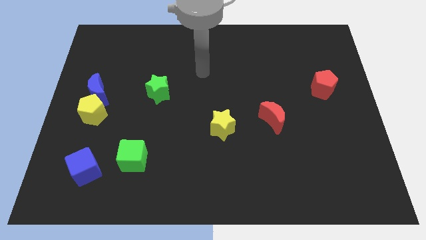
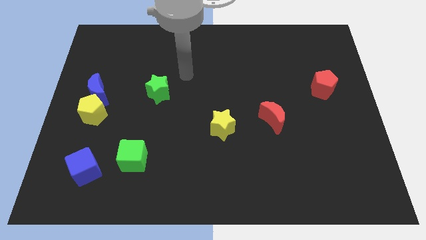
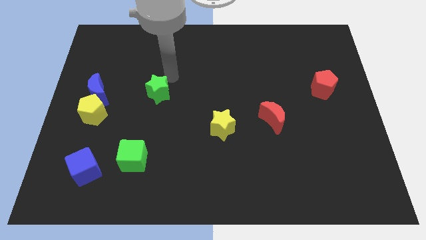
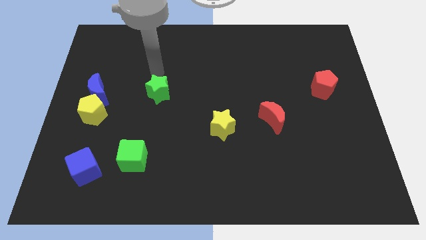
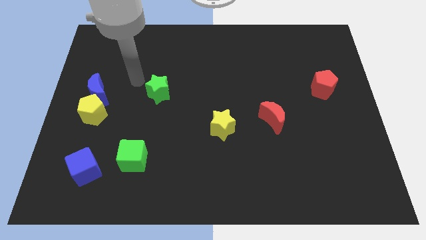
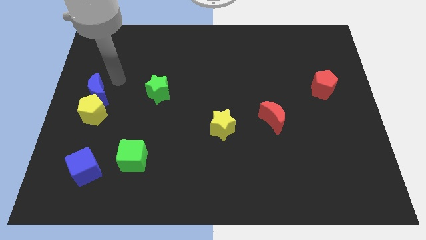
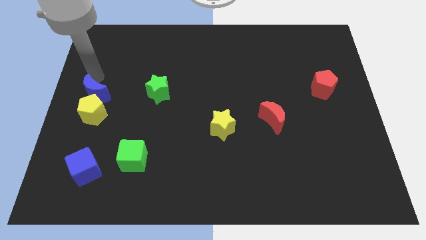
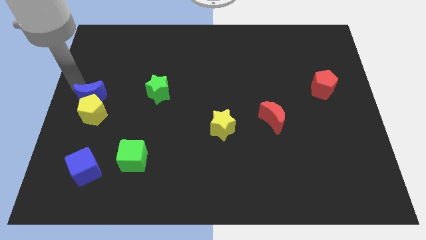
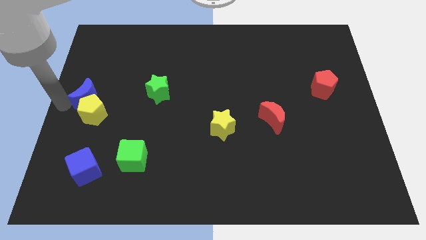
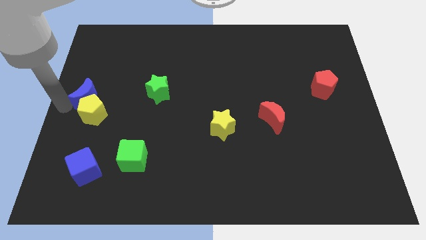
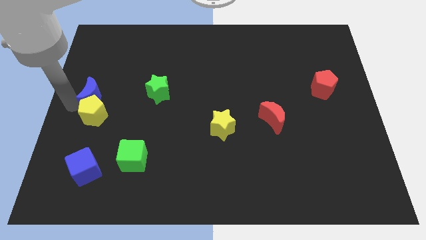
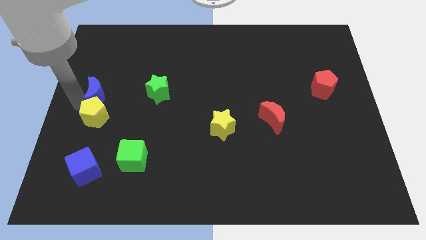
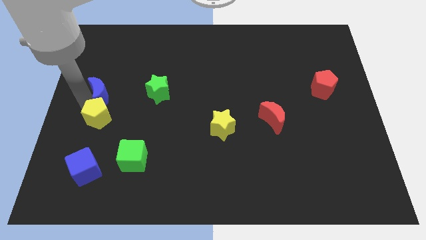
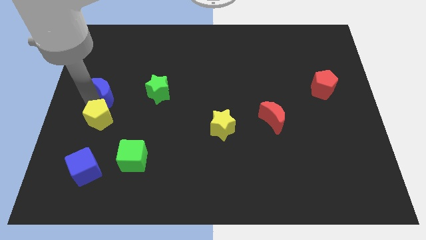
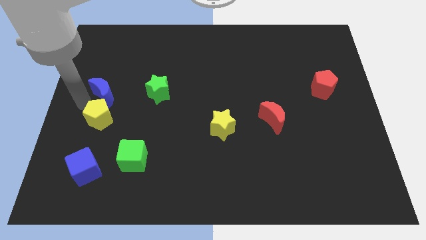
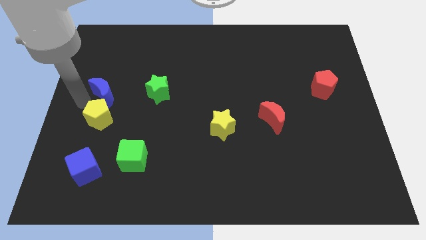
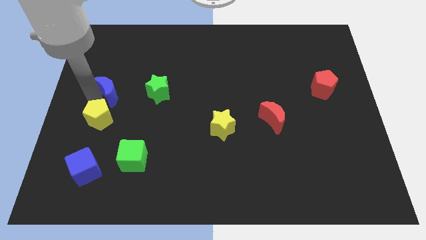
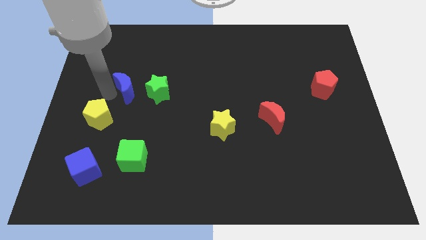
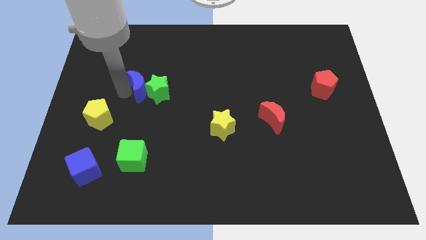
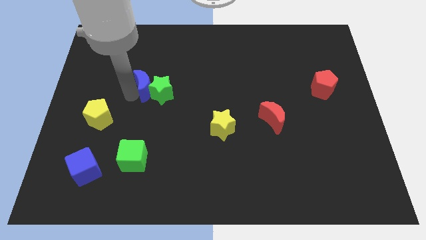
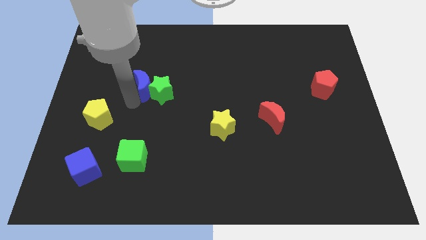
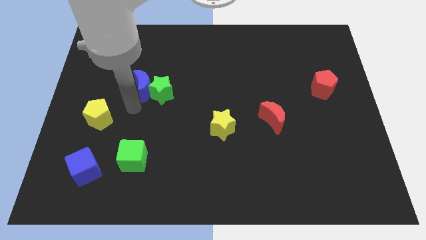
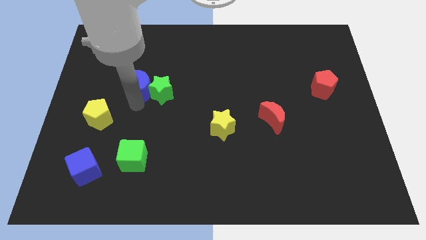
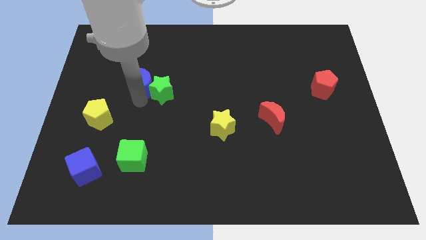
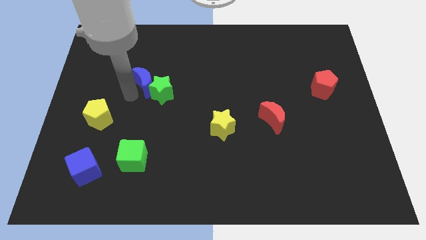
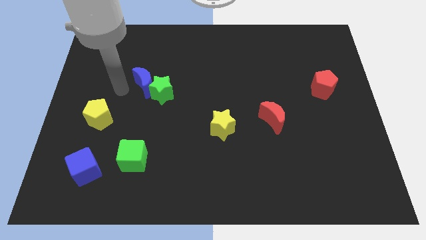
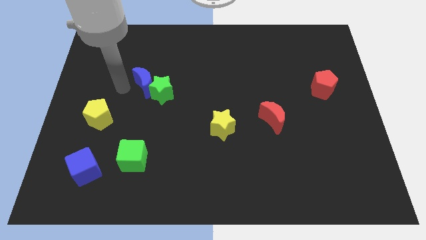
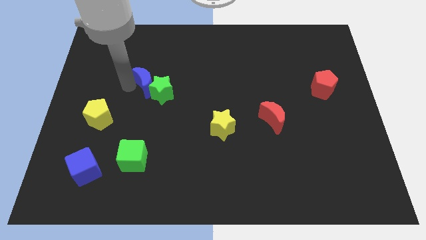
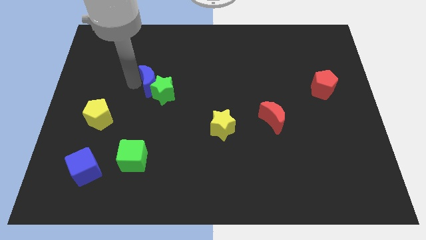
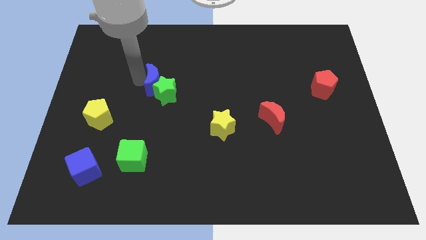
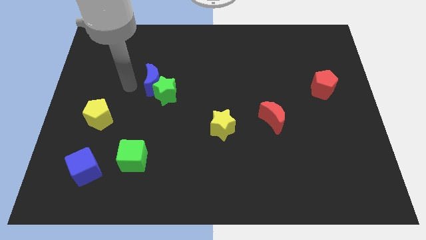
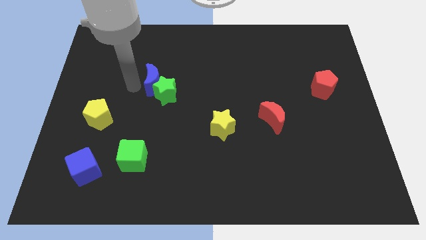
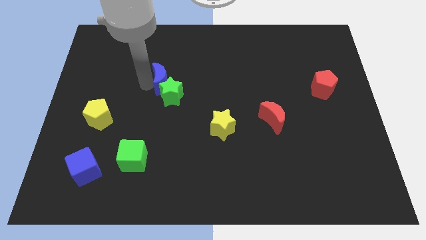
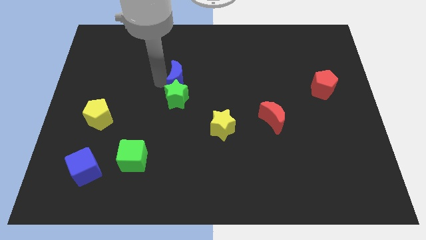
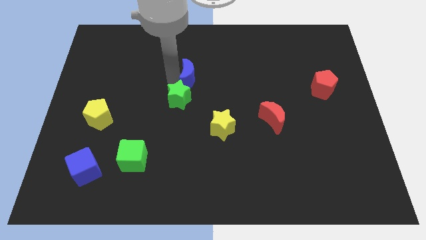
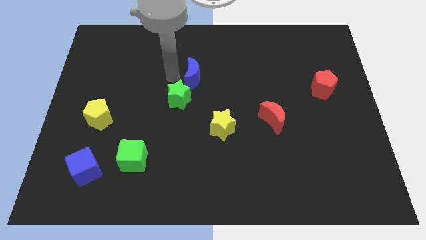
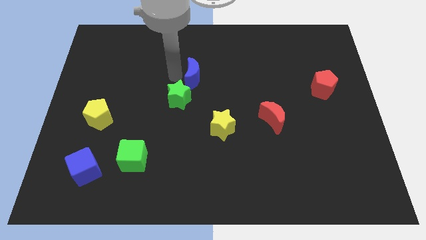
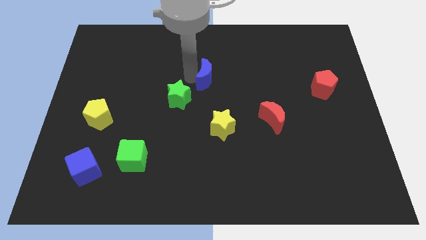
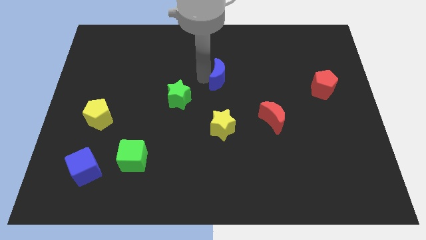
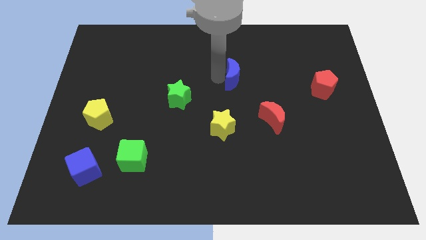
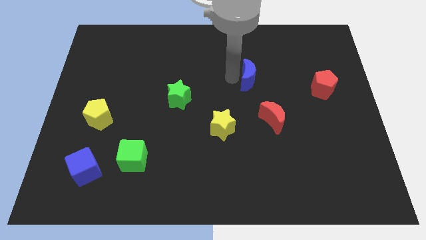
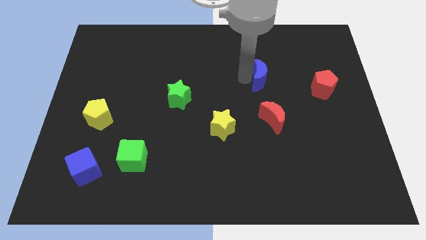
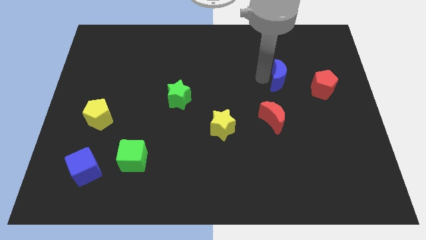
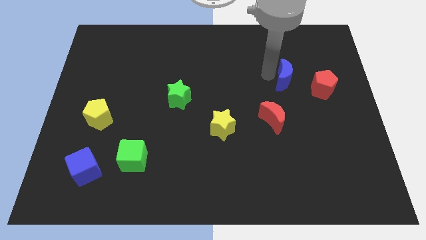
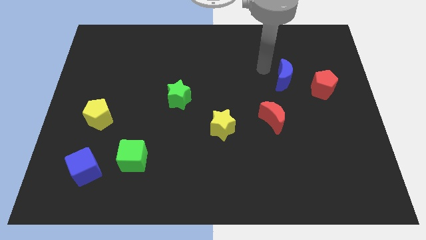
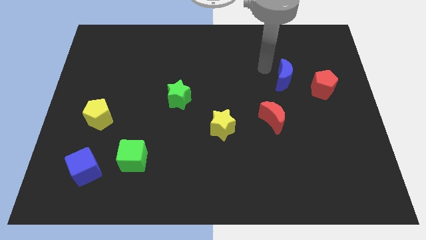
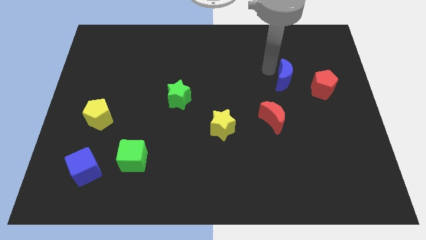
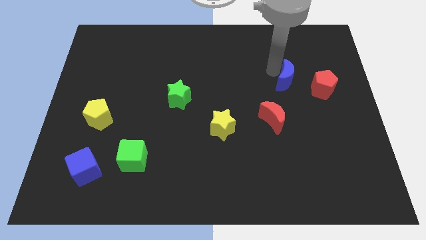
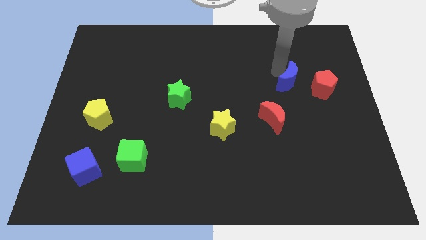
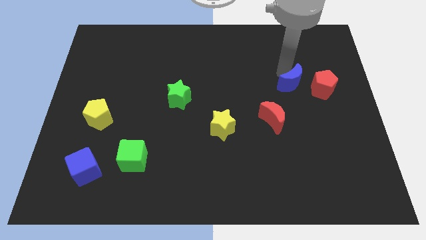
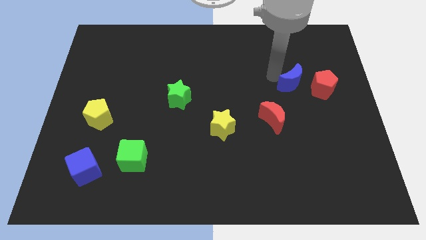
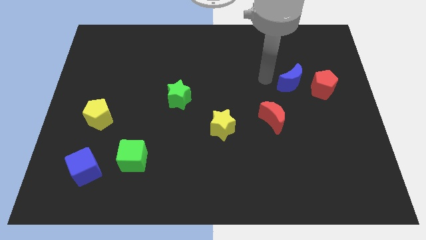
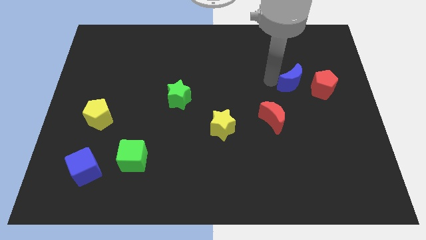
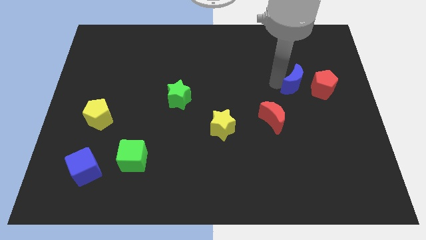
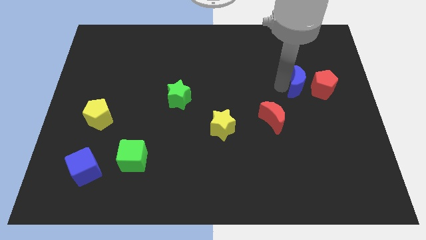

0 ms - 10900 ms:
slide the blue moon to the red pentagon

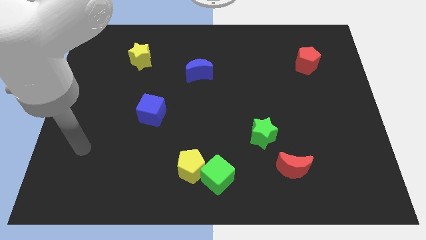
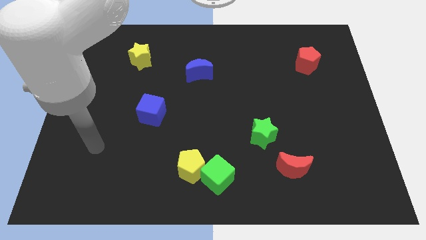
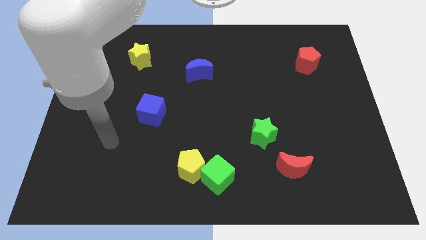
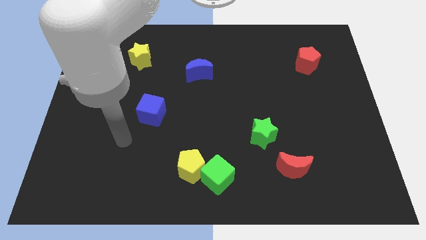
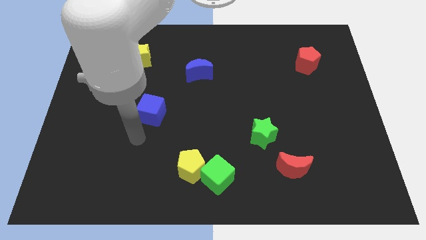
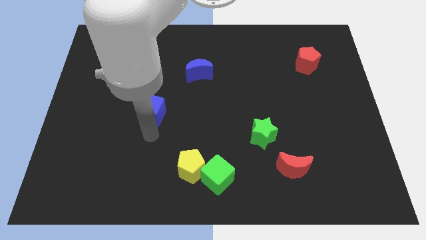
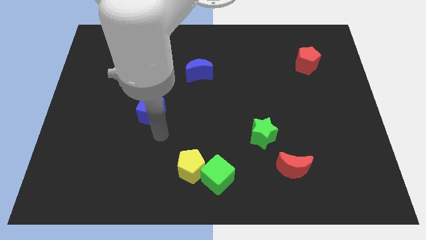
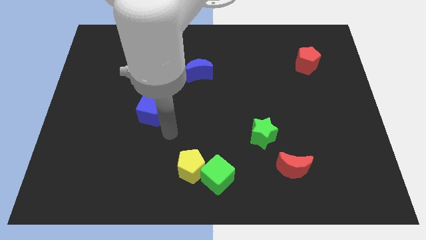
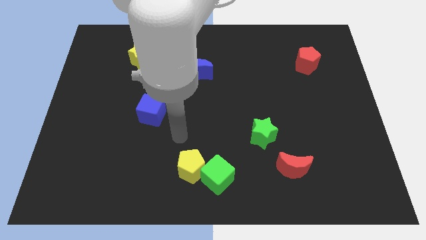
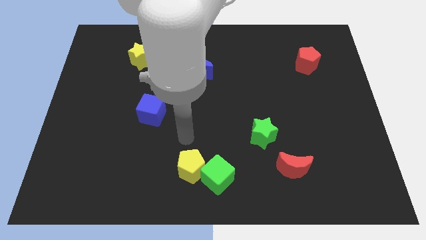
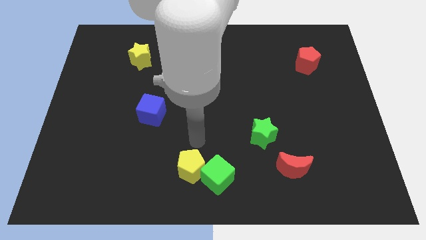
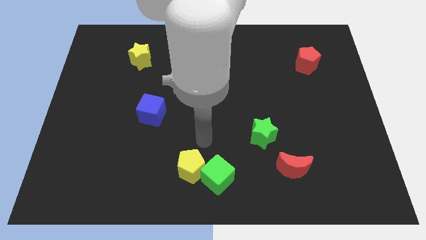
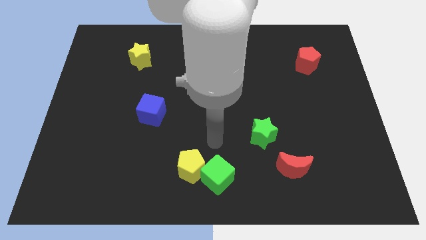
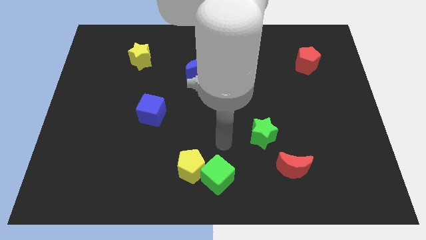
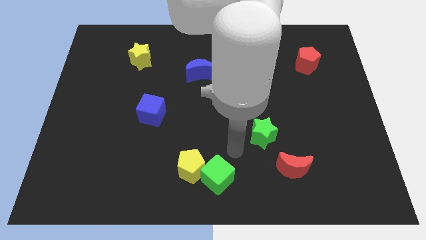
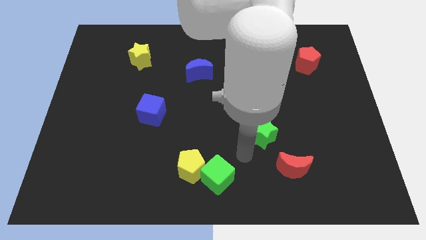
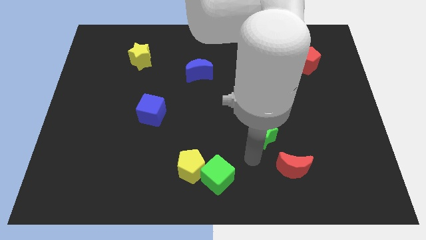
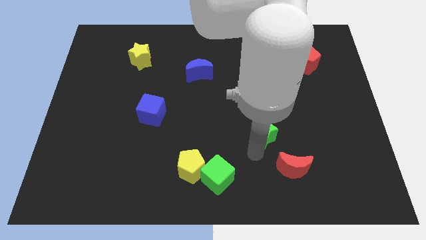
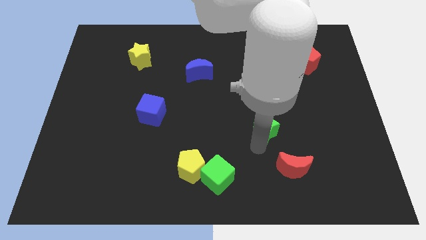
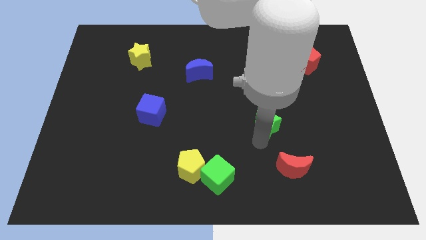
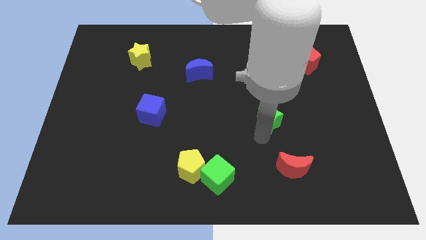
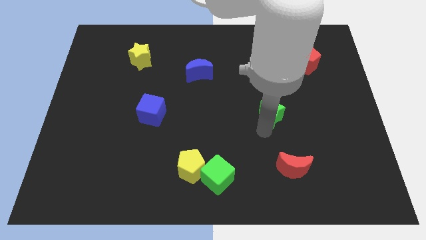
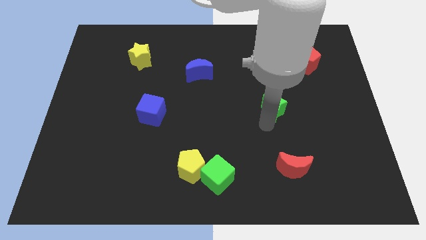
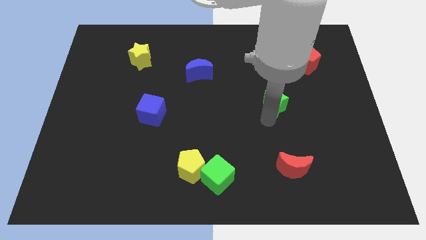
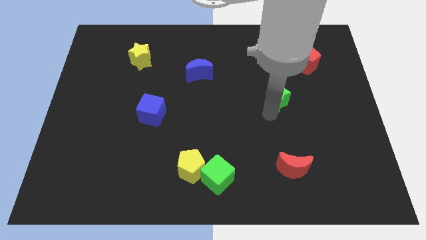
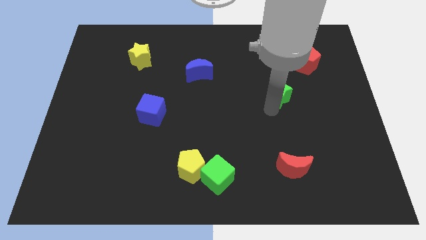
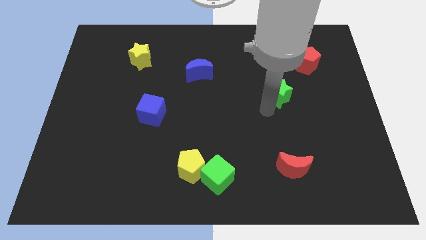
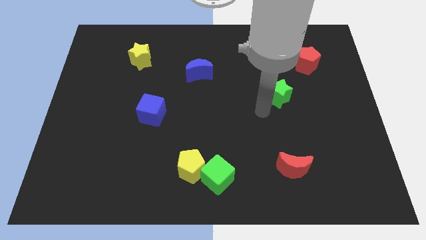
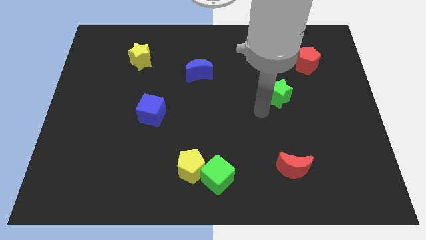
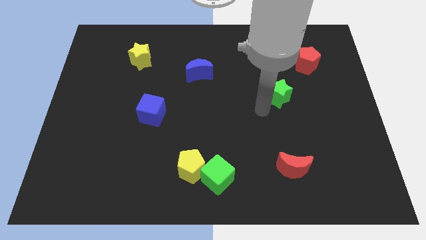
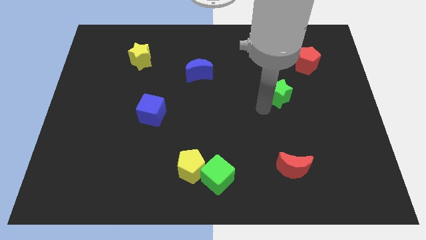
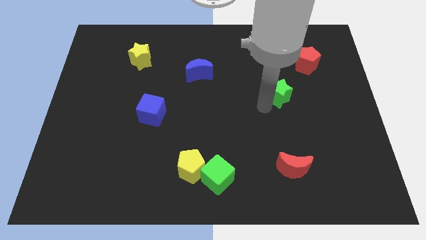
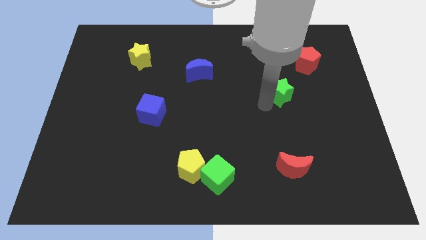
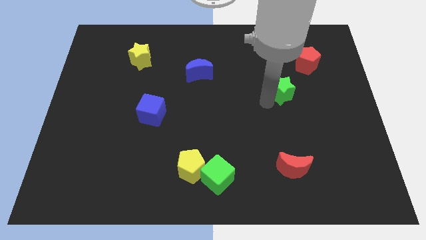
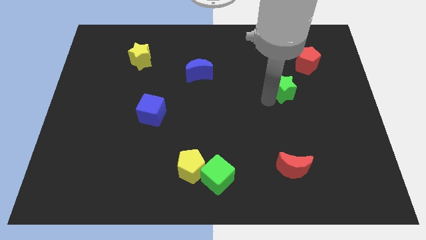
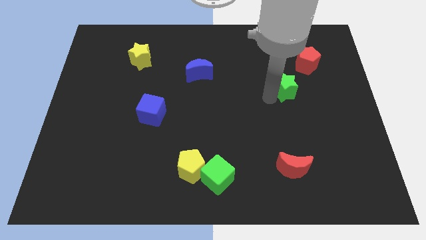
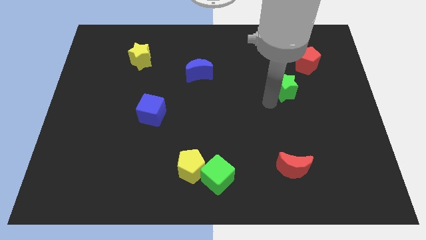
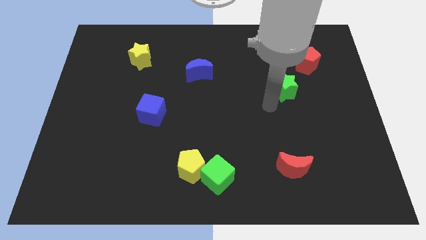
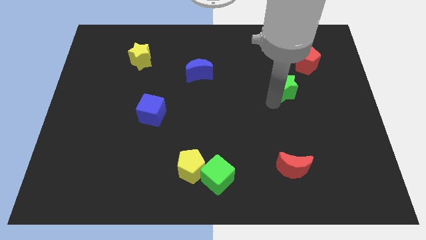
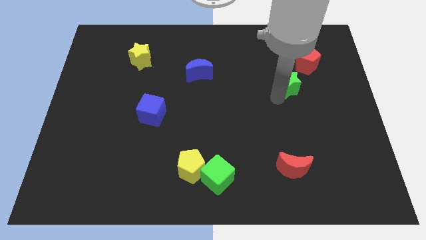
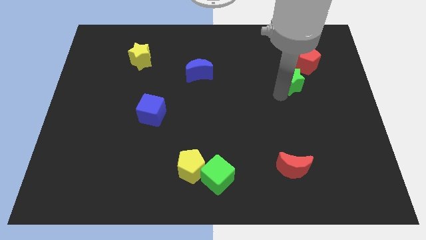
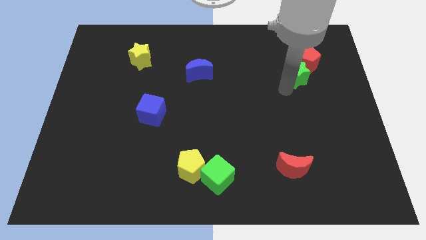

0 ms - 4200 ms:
slide the green star to the red pentagon
